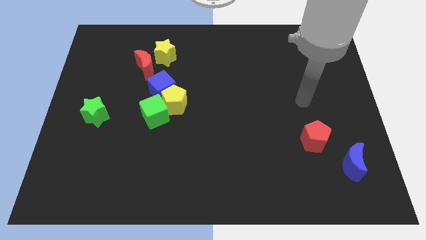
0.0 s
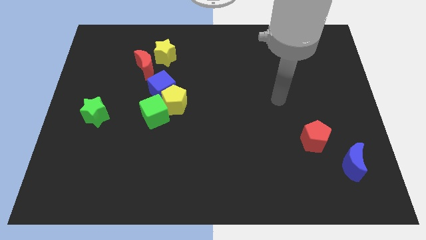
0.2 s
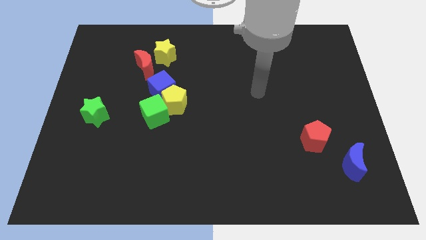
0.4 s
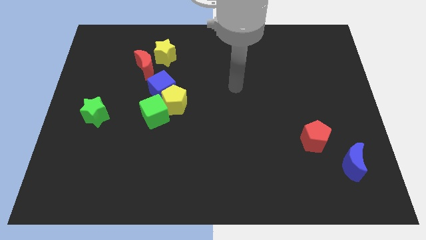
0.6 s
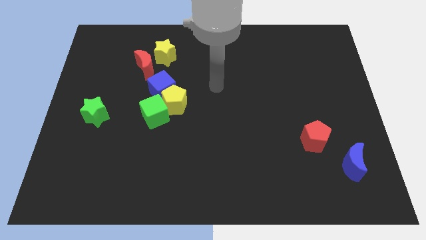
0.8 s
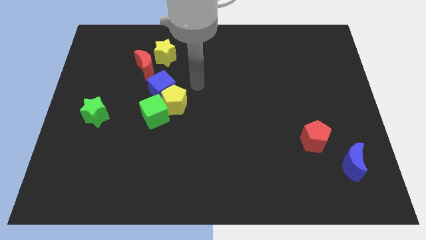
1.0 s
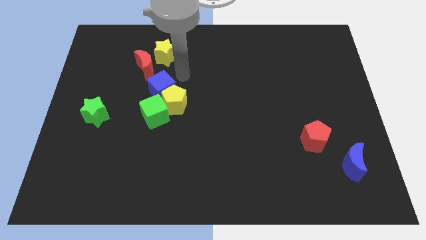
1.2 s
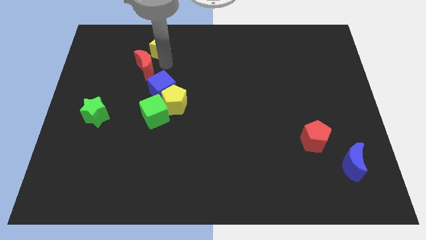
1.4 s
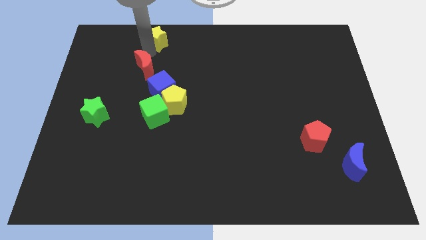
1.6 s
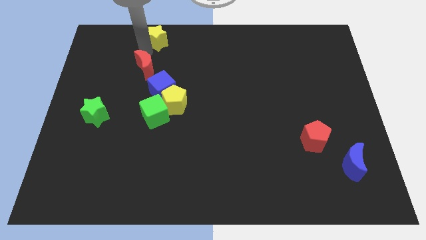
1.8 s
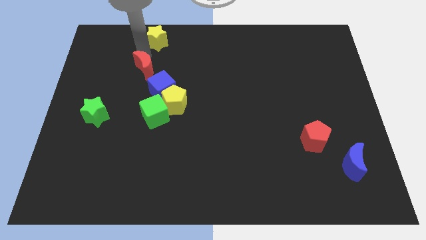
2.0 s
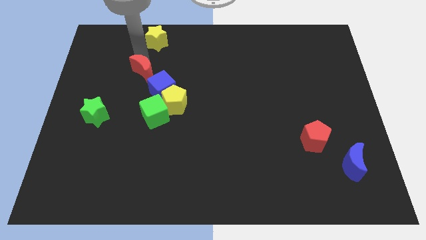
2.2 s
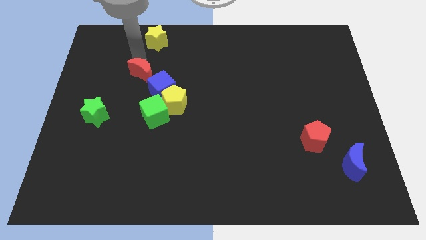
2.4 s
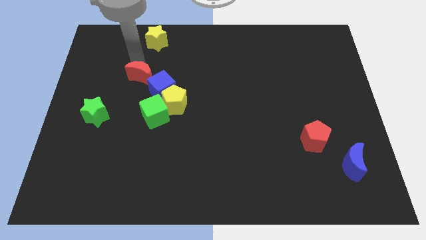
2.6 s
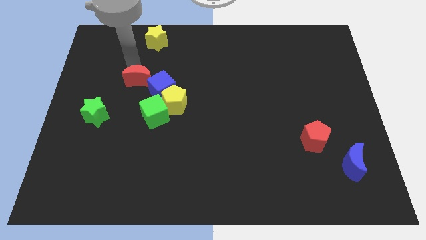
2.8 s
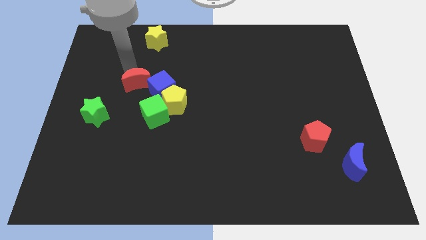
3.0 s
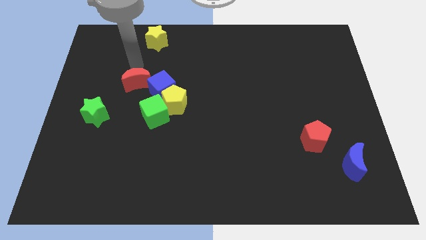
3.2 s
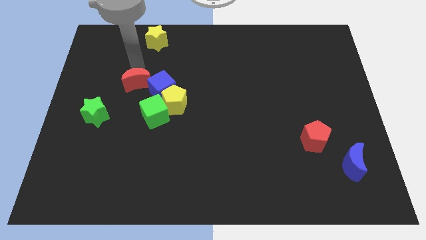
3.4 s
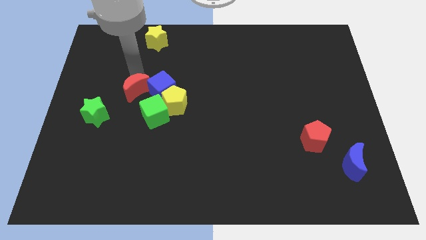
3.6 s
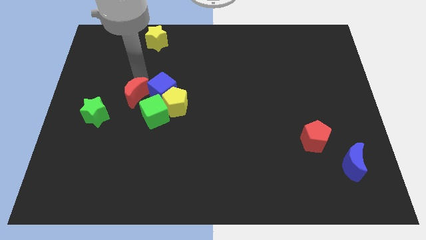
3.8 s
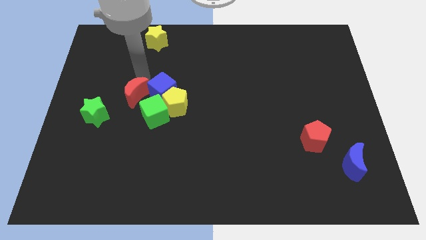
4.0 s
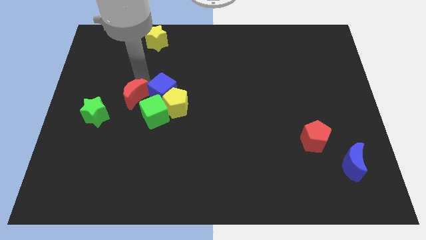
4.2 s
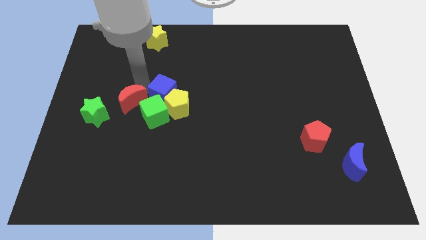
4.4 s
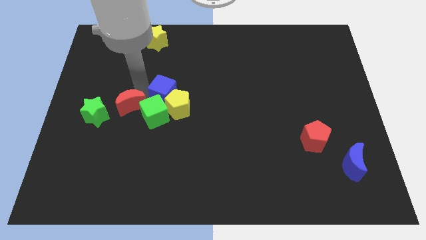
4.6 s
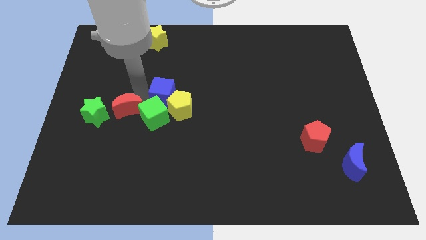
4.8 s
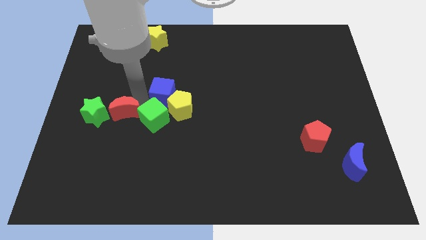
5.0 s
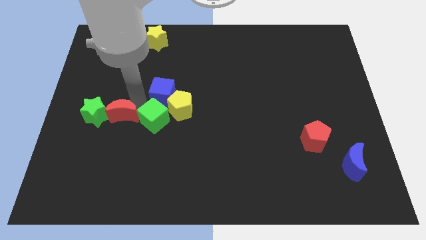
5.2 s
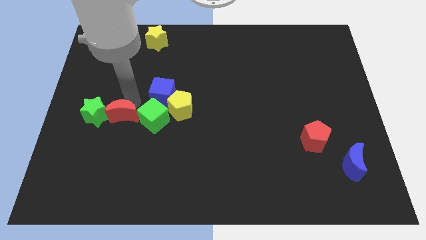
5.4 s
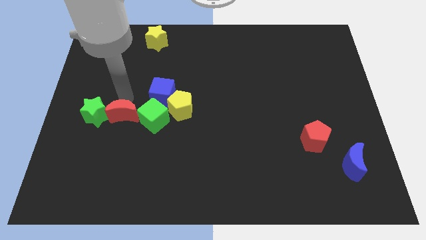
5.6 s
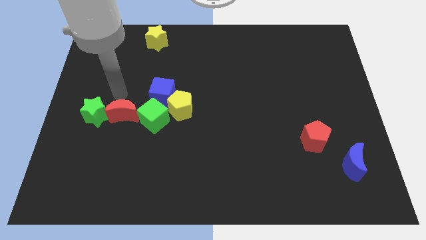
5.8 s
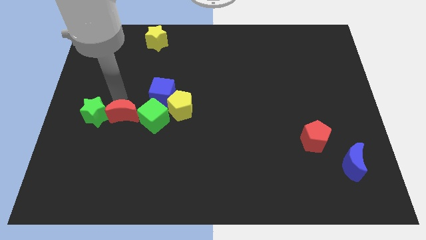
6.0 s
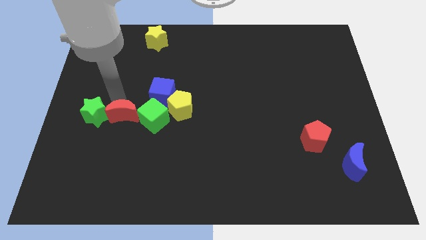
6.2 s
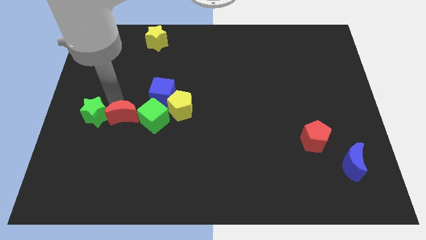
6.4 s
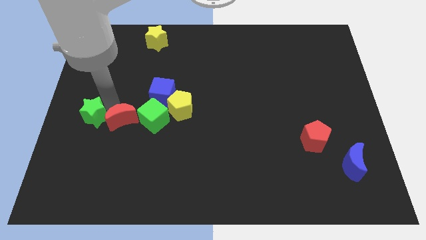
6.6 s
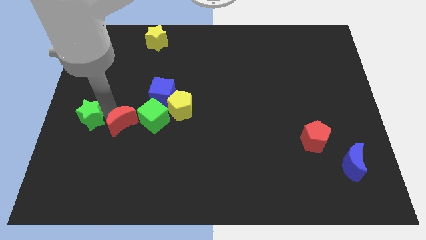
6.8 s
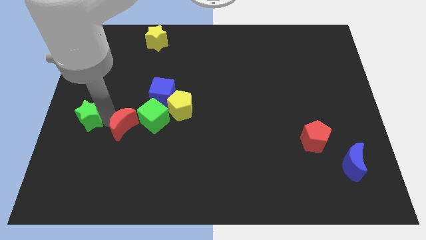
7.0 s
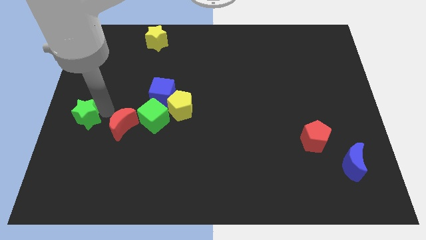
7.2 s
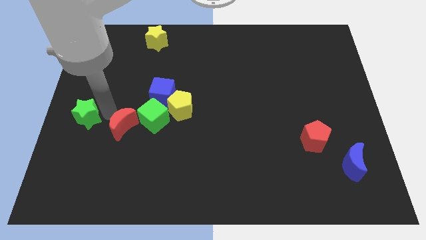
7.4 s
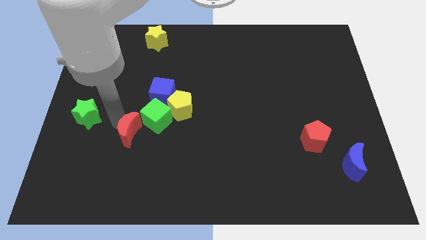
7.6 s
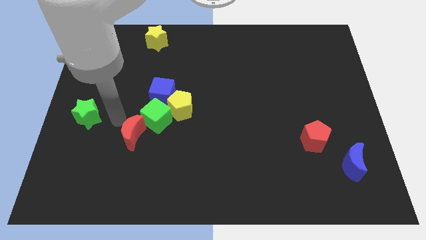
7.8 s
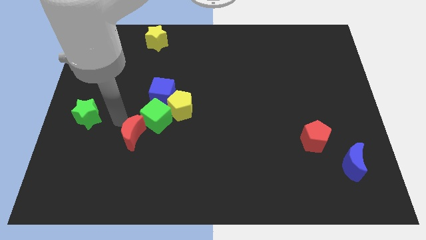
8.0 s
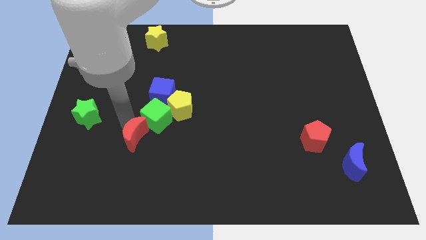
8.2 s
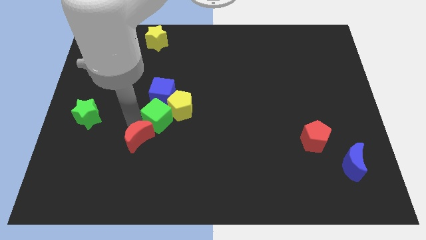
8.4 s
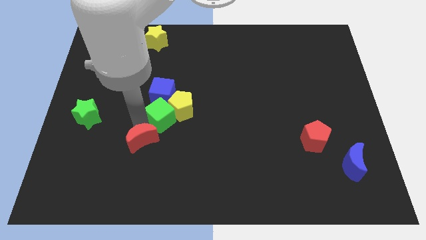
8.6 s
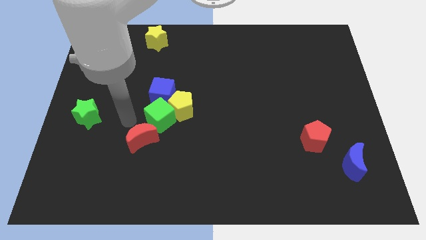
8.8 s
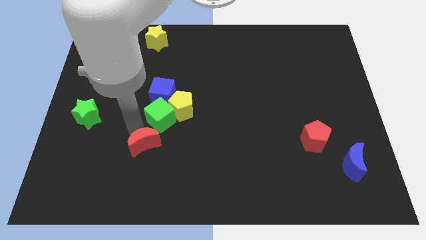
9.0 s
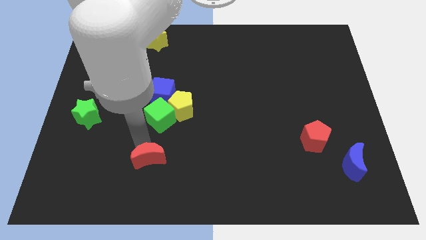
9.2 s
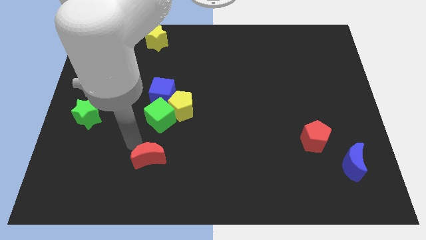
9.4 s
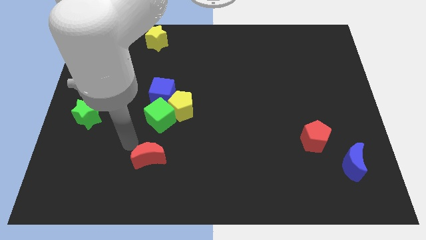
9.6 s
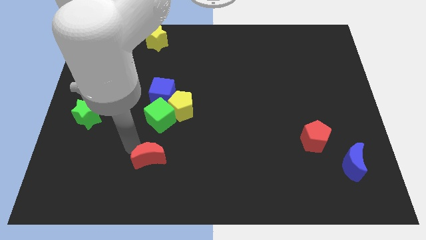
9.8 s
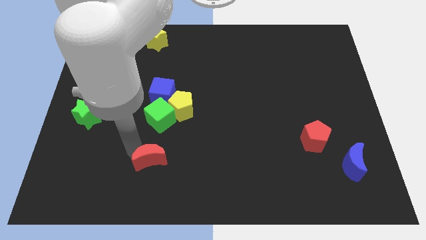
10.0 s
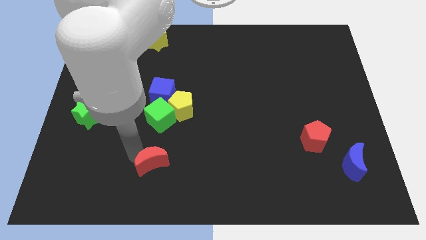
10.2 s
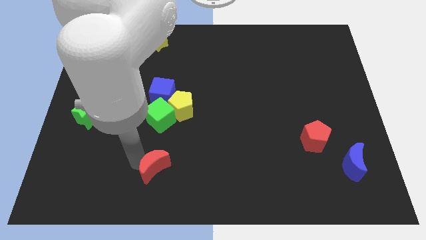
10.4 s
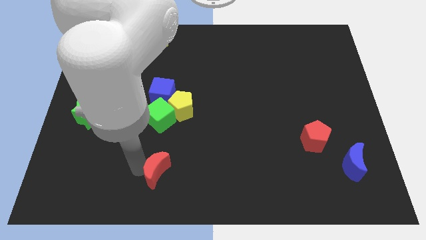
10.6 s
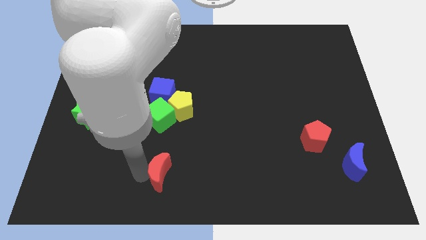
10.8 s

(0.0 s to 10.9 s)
move the red moon to the bottom side

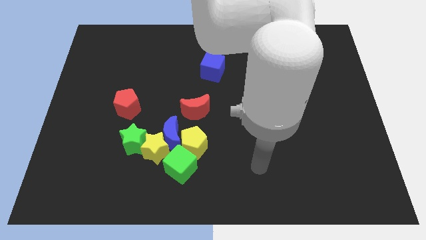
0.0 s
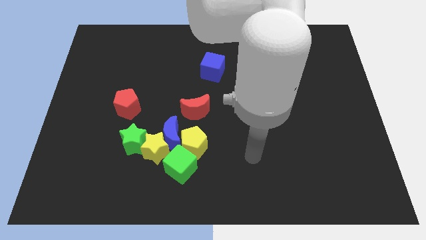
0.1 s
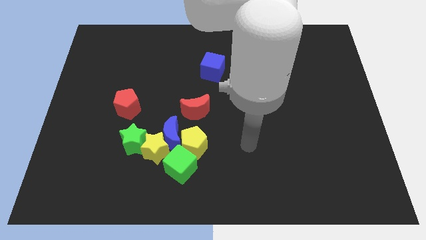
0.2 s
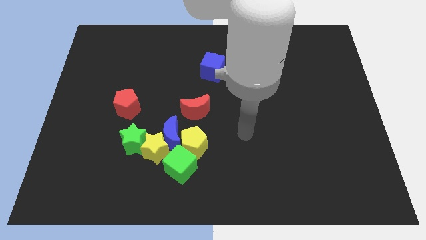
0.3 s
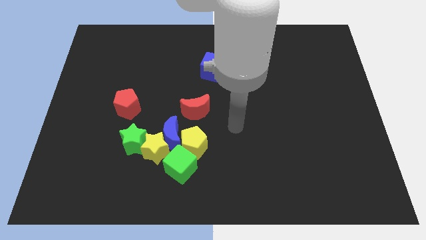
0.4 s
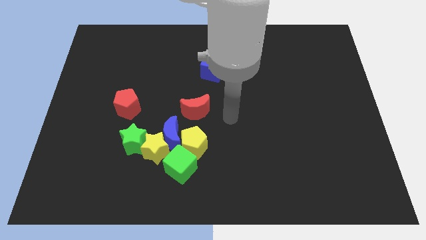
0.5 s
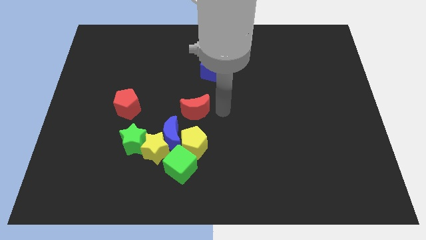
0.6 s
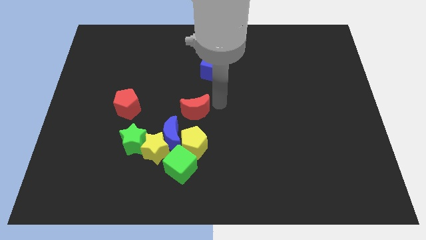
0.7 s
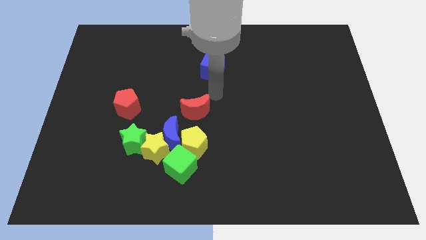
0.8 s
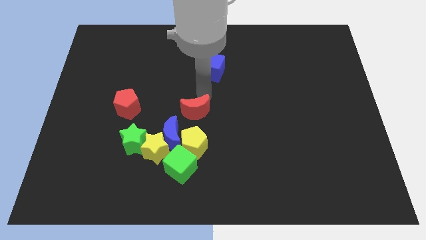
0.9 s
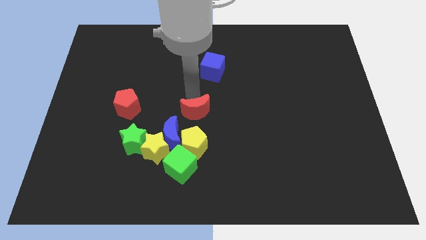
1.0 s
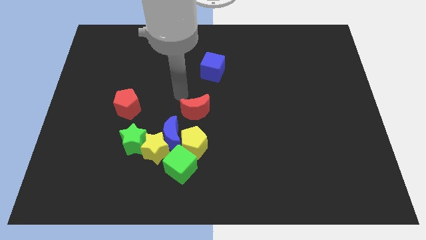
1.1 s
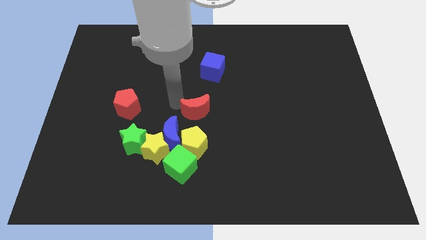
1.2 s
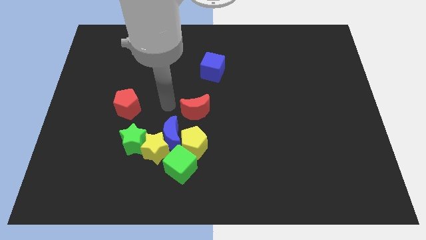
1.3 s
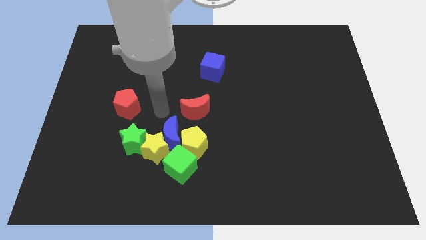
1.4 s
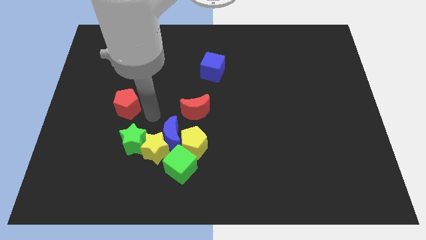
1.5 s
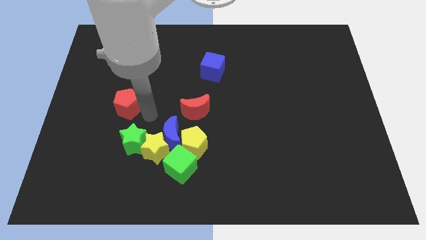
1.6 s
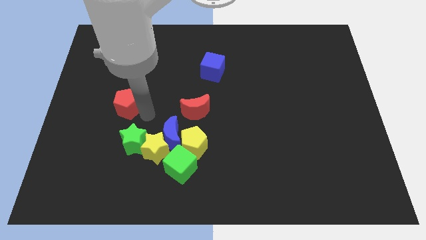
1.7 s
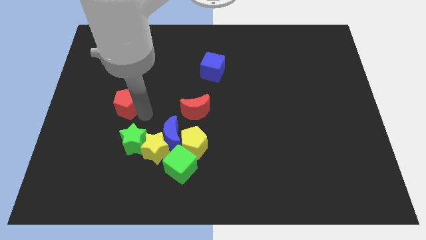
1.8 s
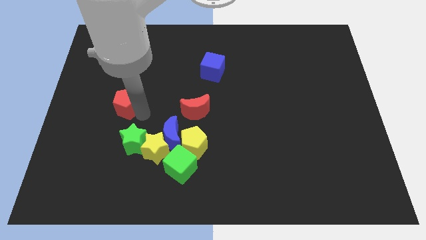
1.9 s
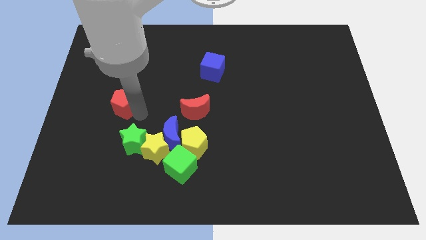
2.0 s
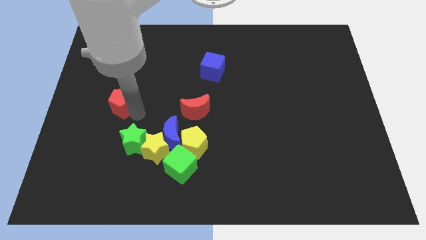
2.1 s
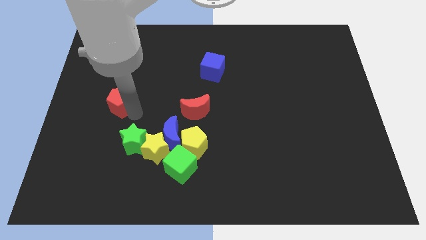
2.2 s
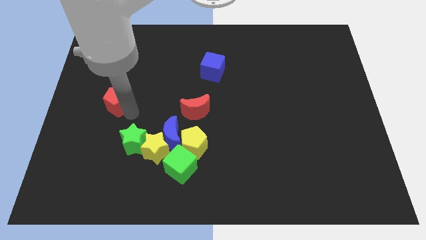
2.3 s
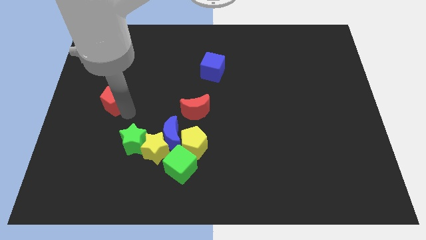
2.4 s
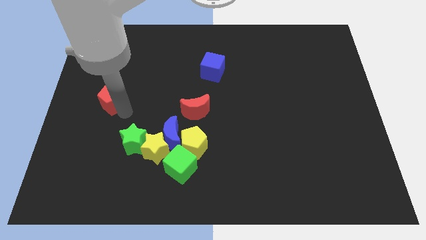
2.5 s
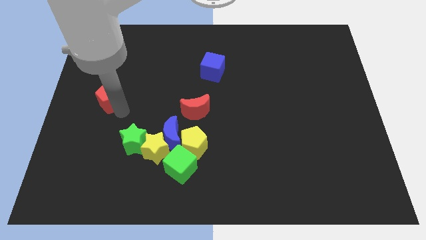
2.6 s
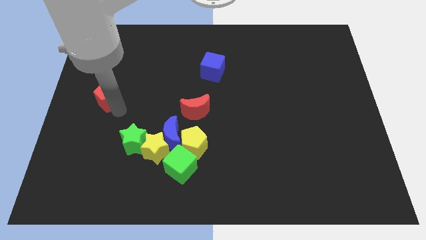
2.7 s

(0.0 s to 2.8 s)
slide the red pentagon to the left side
